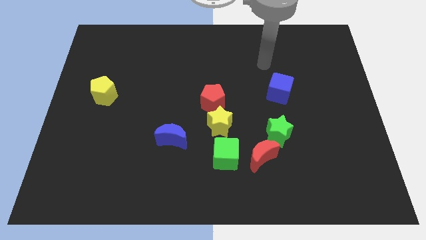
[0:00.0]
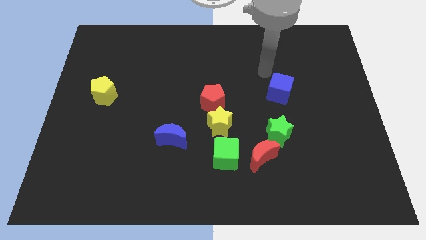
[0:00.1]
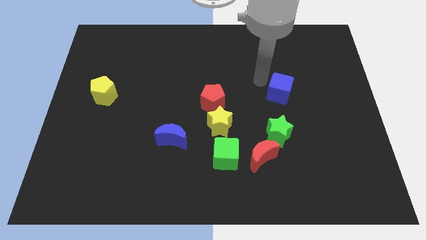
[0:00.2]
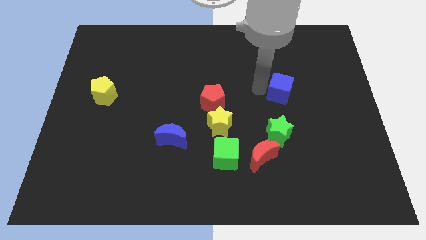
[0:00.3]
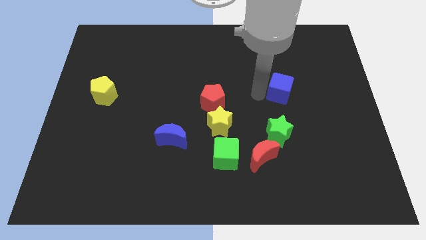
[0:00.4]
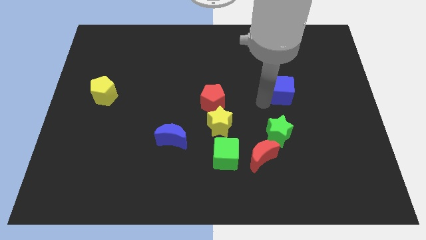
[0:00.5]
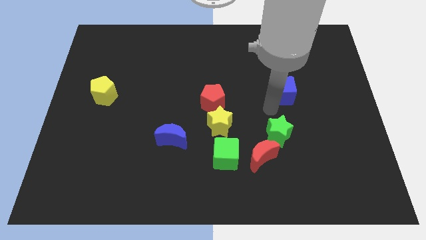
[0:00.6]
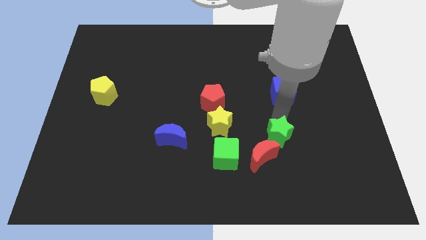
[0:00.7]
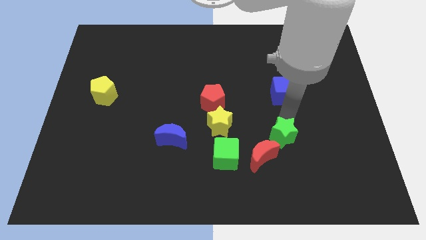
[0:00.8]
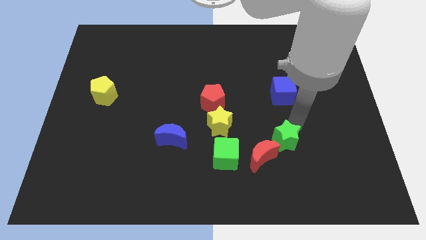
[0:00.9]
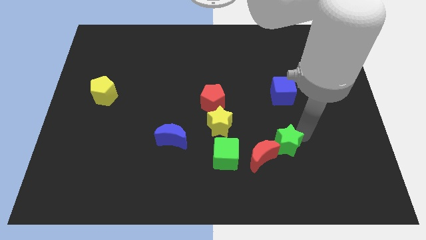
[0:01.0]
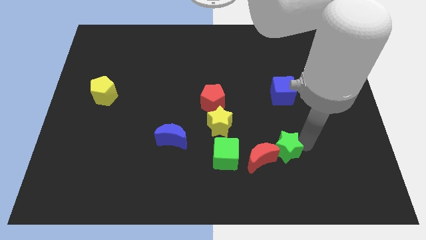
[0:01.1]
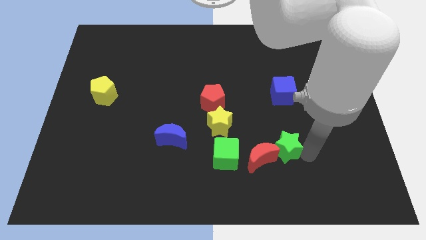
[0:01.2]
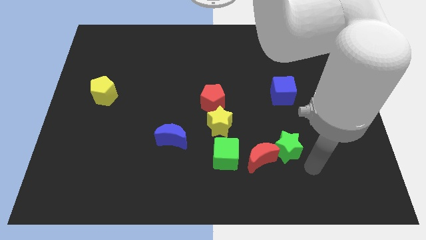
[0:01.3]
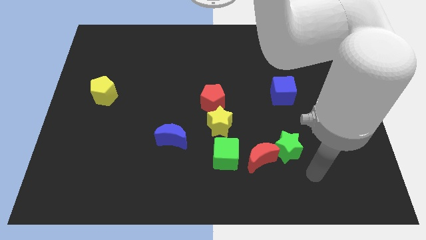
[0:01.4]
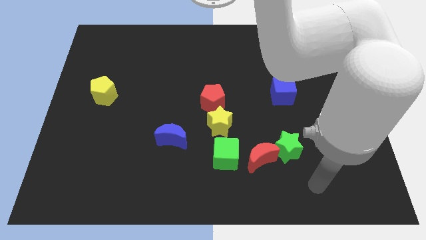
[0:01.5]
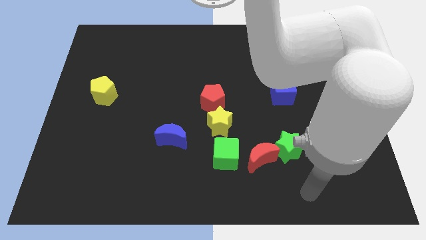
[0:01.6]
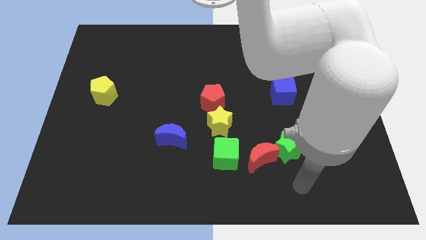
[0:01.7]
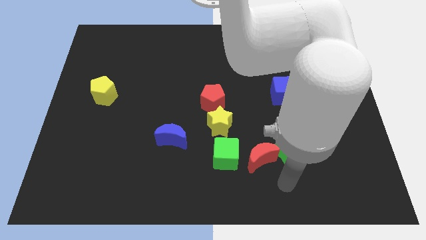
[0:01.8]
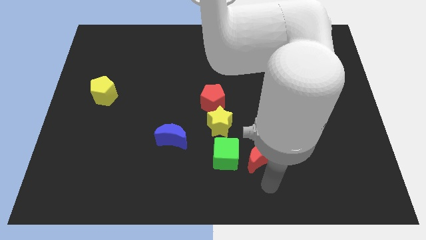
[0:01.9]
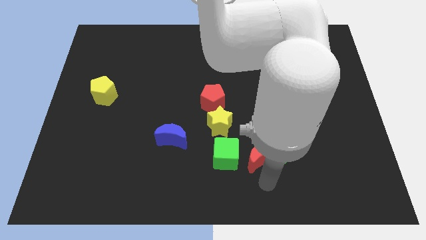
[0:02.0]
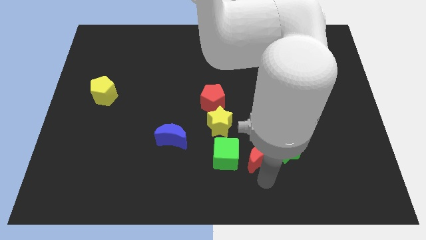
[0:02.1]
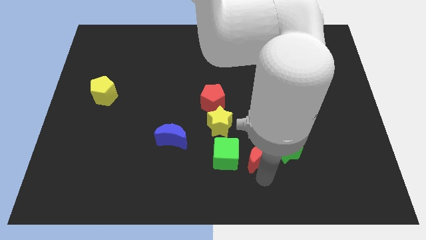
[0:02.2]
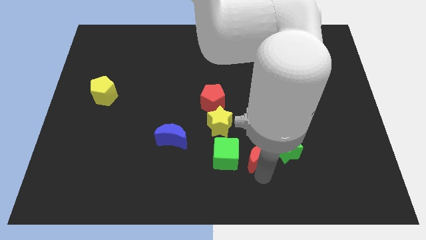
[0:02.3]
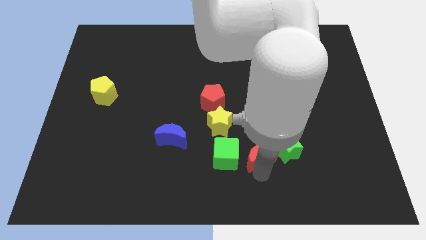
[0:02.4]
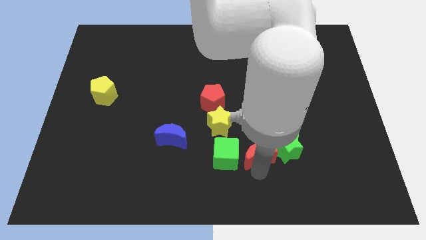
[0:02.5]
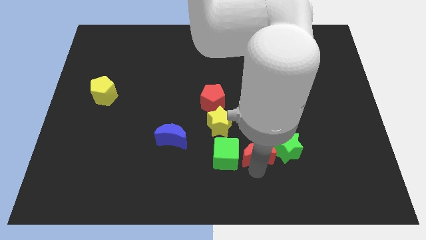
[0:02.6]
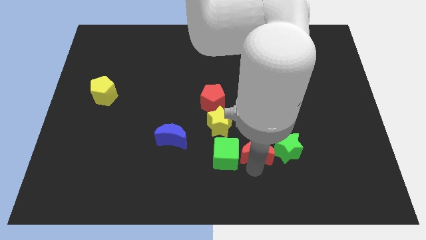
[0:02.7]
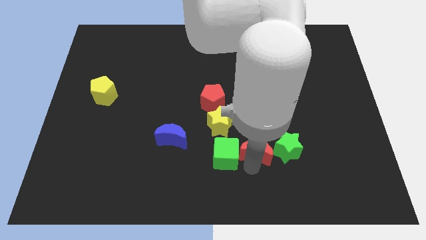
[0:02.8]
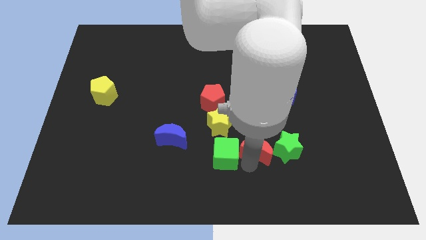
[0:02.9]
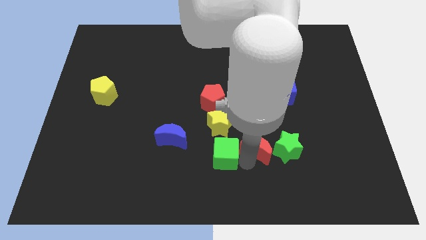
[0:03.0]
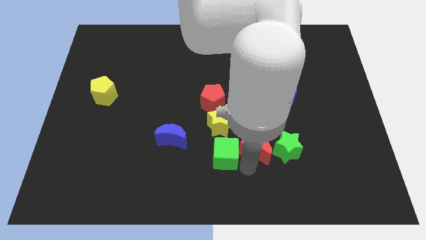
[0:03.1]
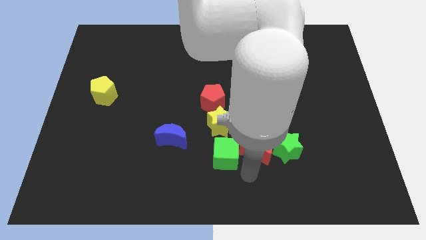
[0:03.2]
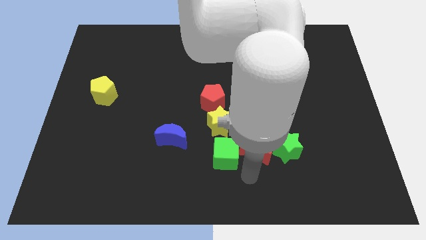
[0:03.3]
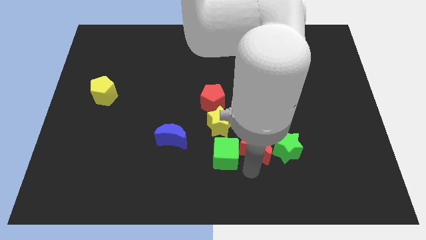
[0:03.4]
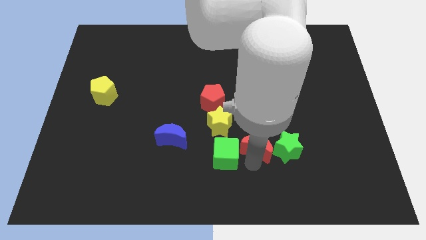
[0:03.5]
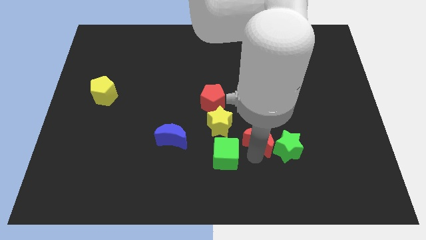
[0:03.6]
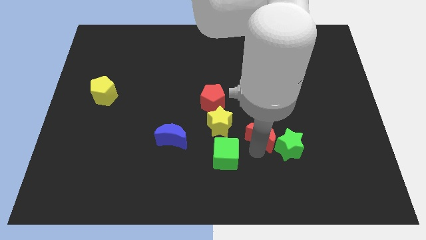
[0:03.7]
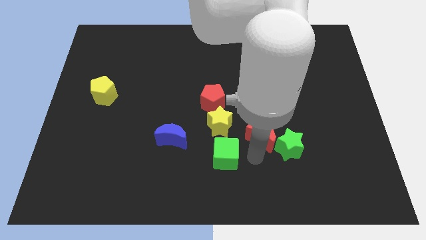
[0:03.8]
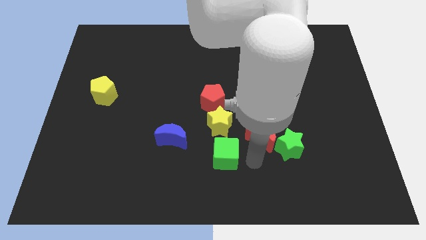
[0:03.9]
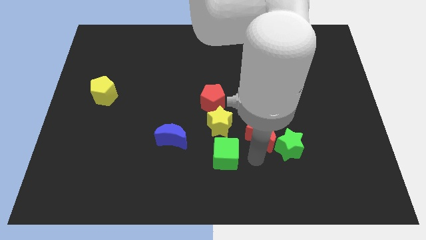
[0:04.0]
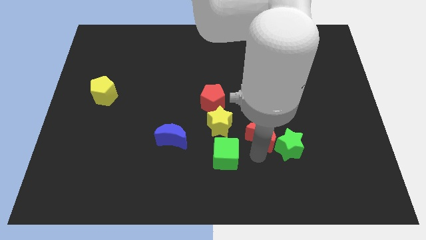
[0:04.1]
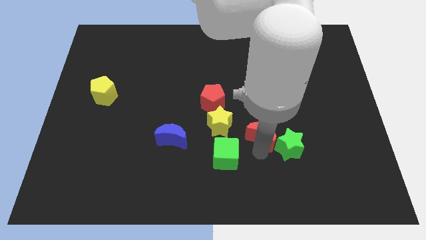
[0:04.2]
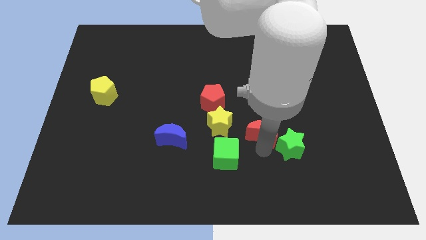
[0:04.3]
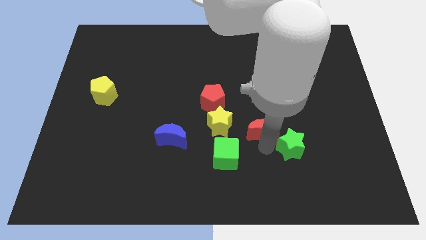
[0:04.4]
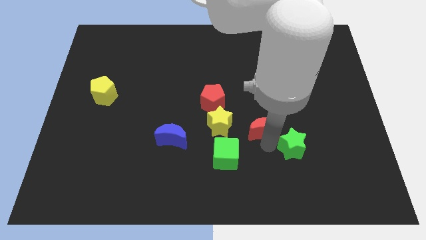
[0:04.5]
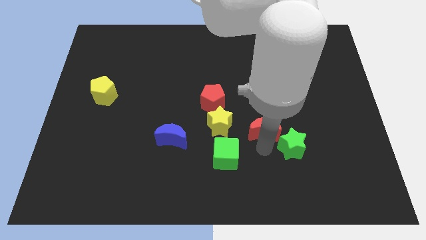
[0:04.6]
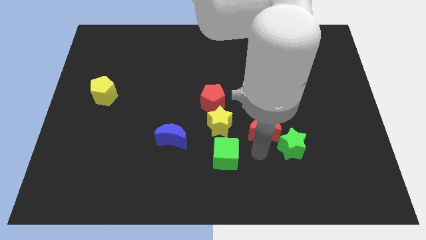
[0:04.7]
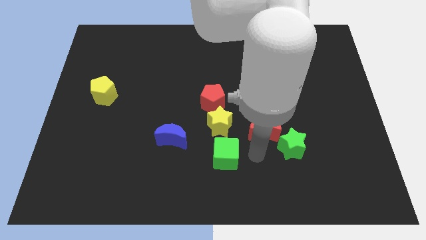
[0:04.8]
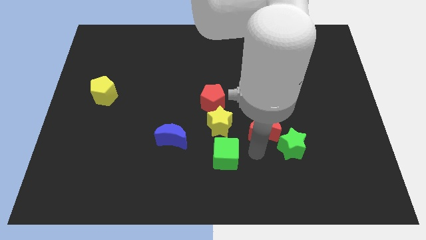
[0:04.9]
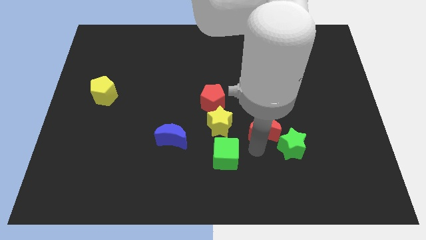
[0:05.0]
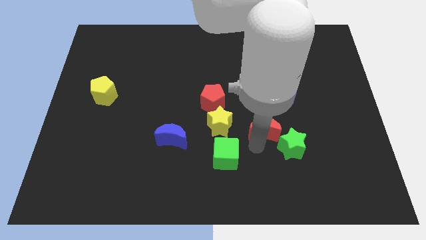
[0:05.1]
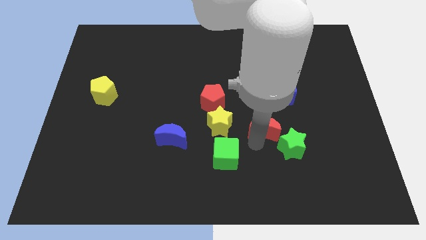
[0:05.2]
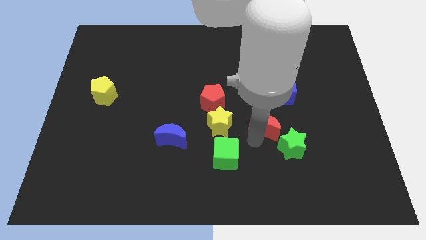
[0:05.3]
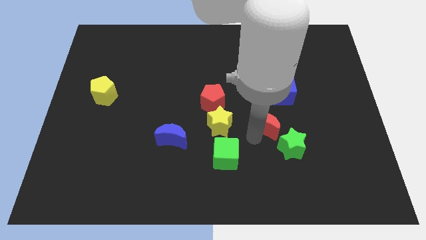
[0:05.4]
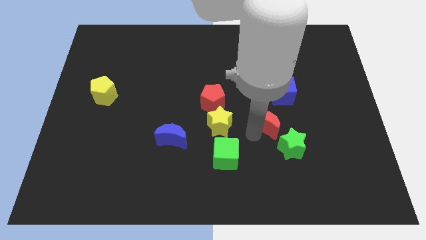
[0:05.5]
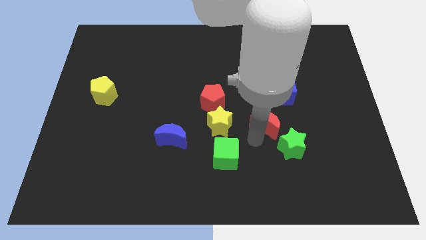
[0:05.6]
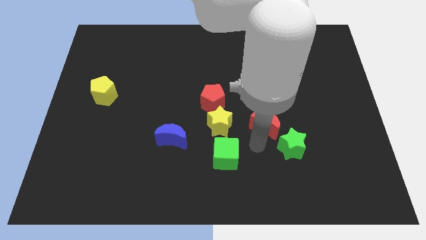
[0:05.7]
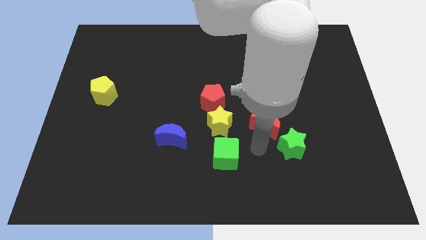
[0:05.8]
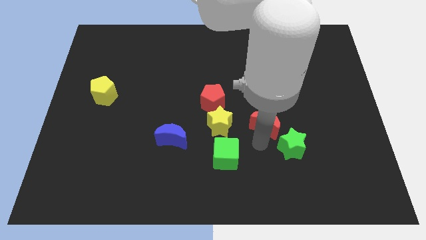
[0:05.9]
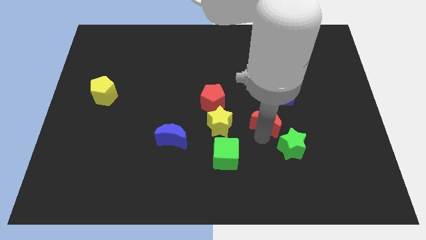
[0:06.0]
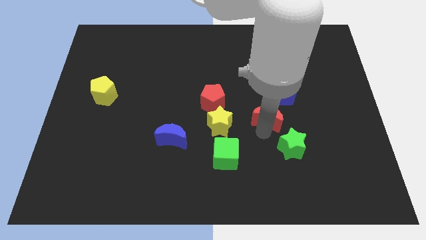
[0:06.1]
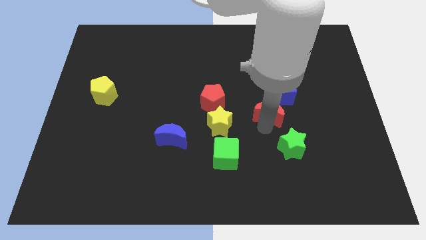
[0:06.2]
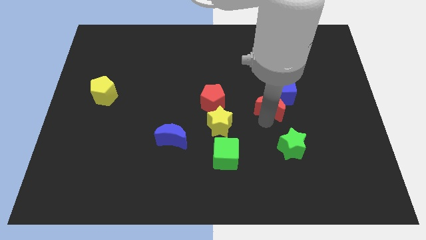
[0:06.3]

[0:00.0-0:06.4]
push the red moon to the blue cube

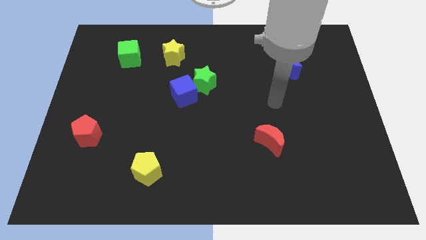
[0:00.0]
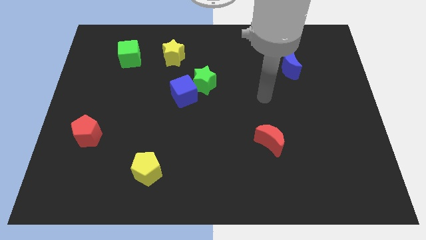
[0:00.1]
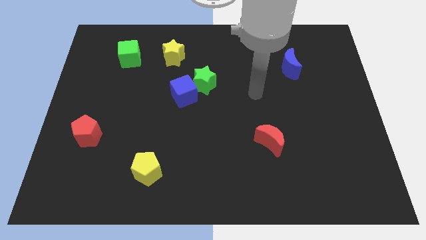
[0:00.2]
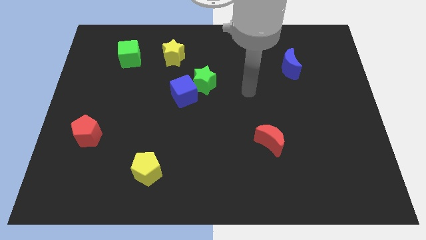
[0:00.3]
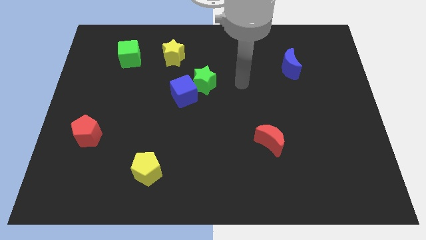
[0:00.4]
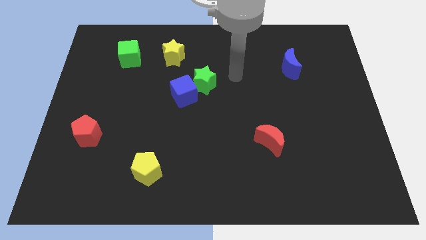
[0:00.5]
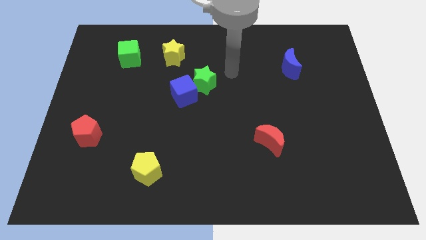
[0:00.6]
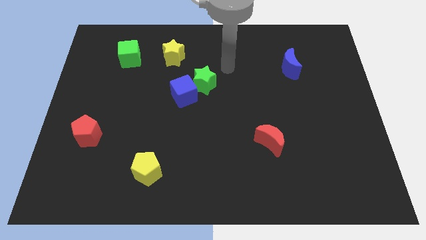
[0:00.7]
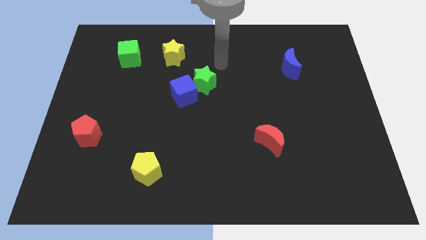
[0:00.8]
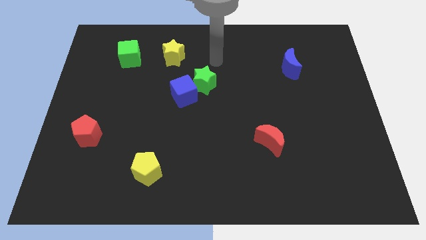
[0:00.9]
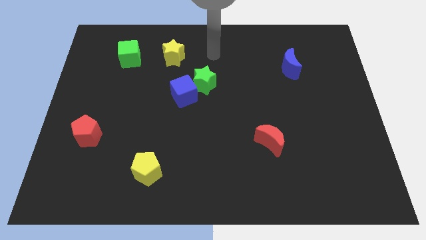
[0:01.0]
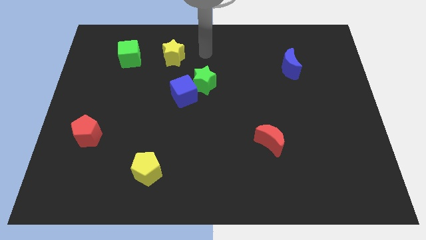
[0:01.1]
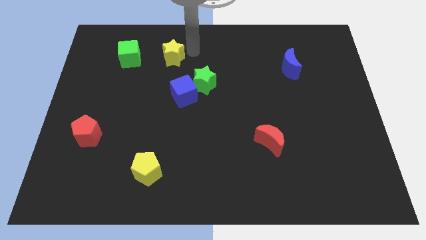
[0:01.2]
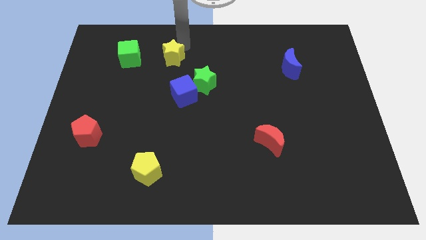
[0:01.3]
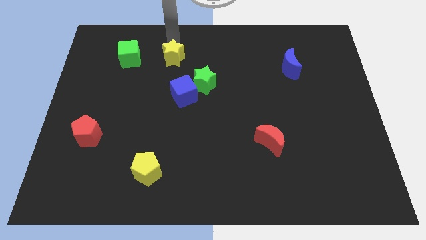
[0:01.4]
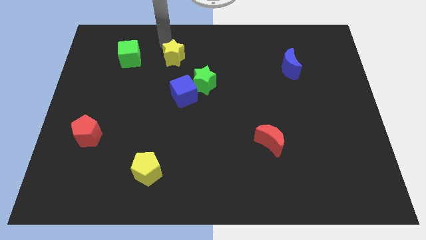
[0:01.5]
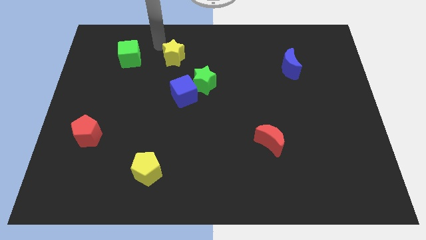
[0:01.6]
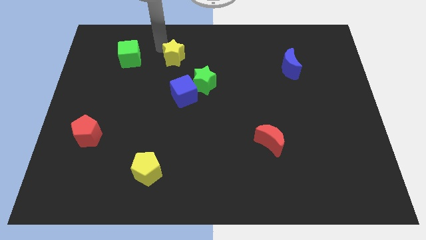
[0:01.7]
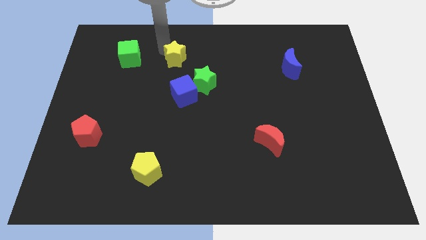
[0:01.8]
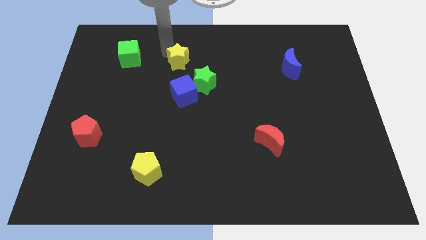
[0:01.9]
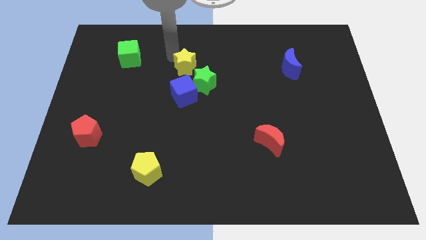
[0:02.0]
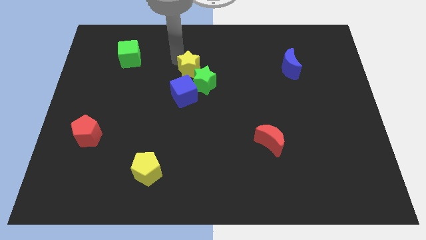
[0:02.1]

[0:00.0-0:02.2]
move the yellow star close to the green star
